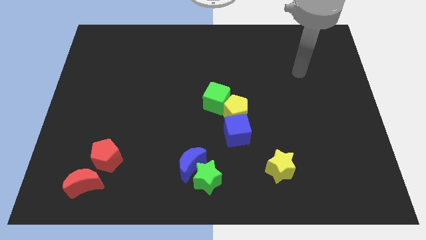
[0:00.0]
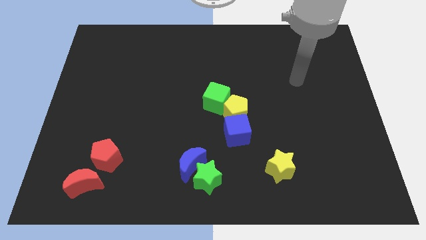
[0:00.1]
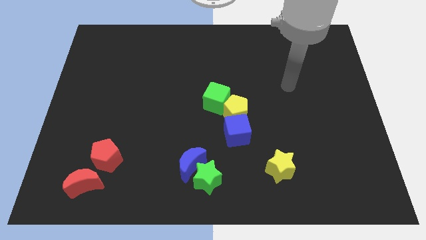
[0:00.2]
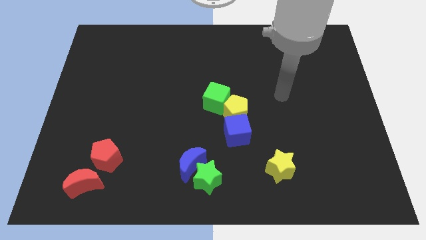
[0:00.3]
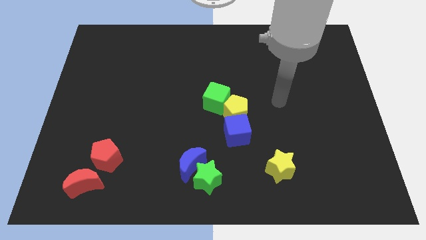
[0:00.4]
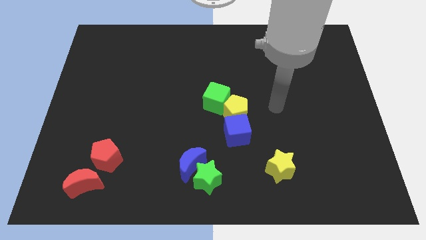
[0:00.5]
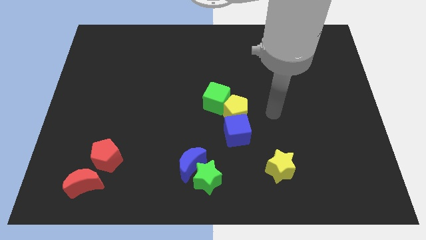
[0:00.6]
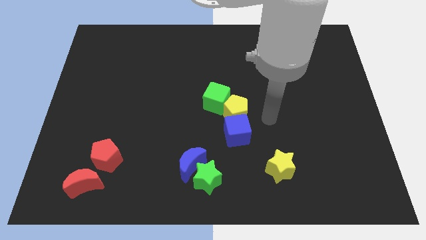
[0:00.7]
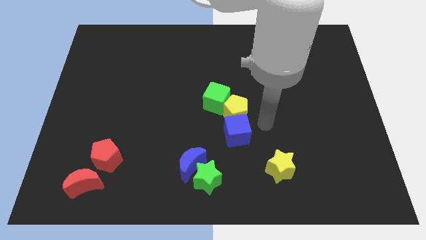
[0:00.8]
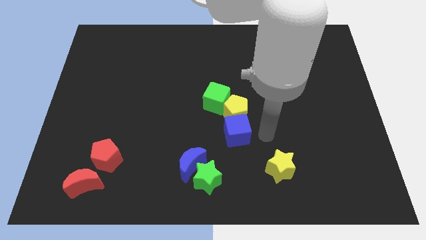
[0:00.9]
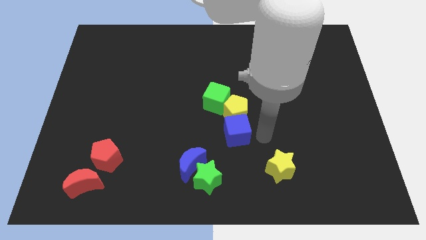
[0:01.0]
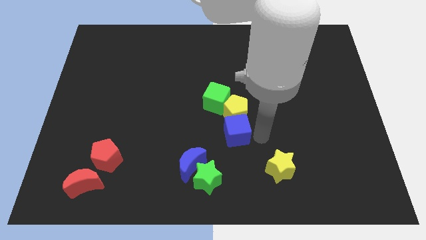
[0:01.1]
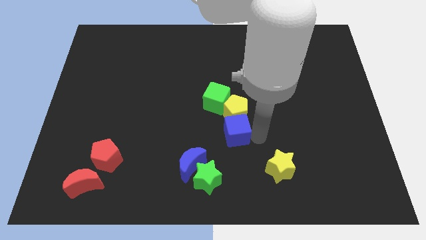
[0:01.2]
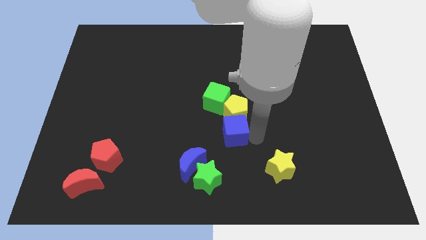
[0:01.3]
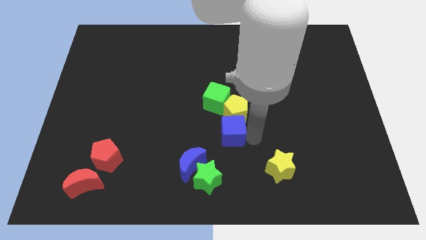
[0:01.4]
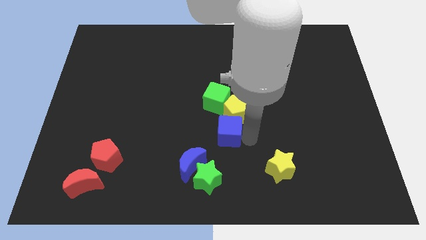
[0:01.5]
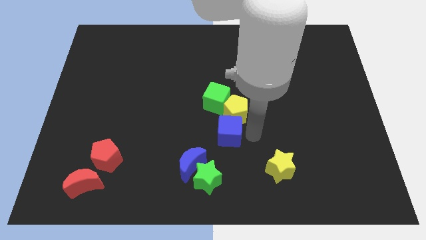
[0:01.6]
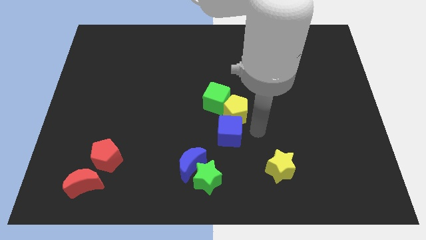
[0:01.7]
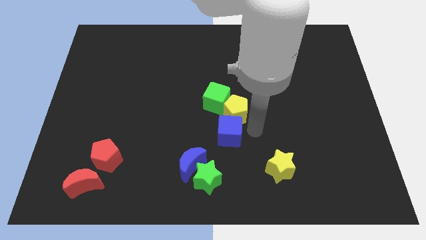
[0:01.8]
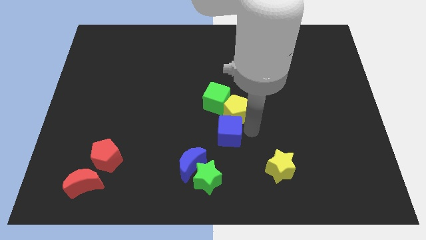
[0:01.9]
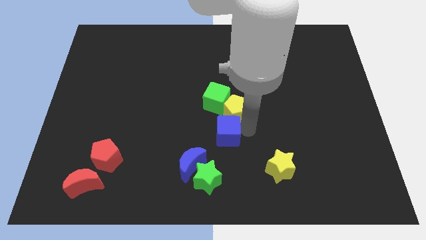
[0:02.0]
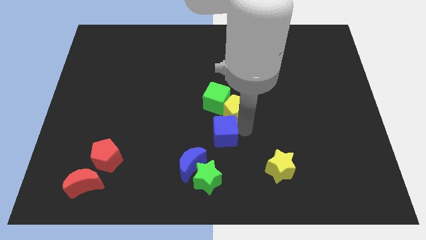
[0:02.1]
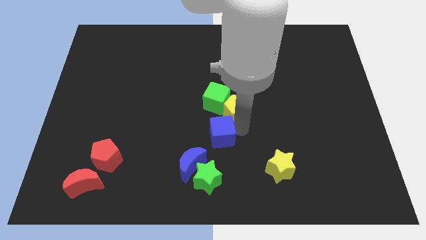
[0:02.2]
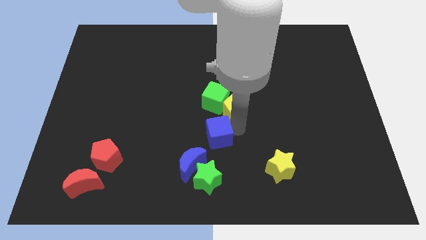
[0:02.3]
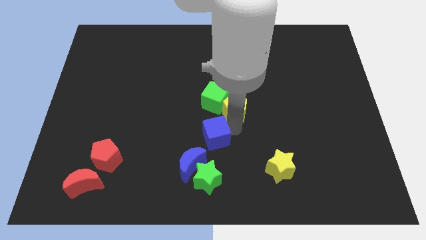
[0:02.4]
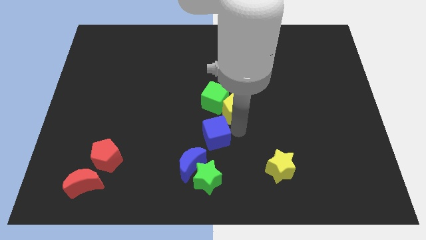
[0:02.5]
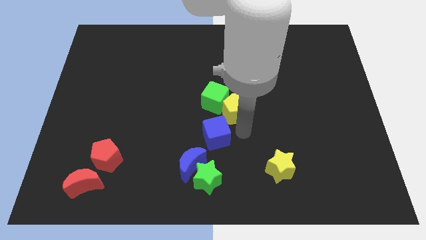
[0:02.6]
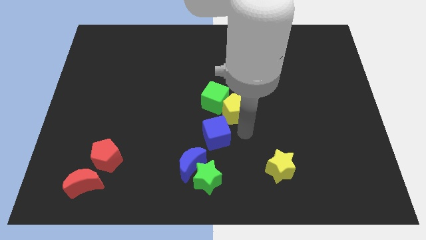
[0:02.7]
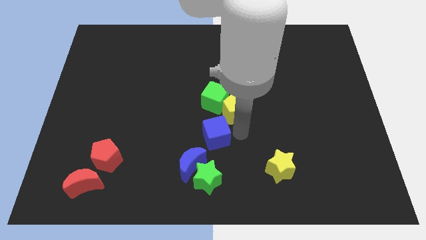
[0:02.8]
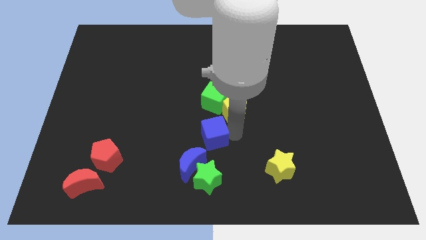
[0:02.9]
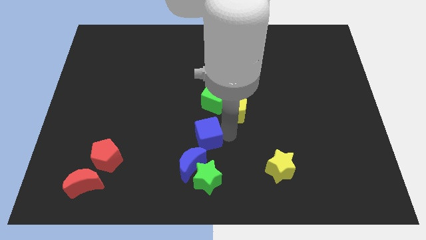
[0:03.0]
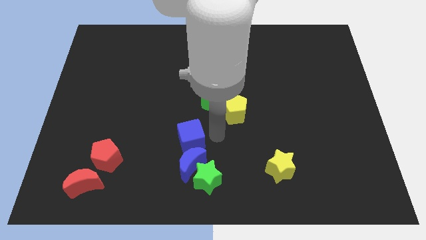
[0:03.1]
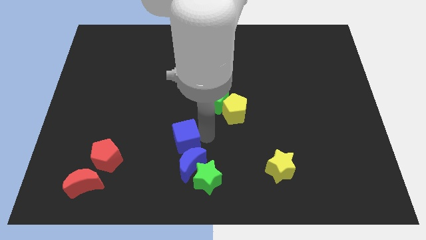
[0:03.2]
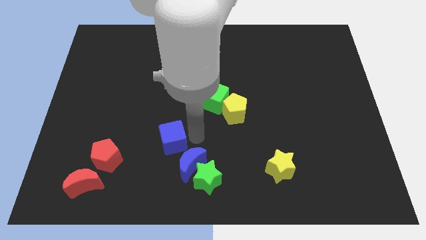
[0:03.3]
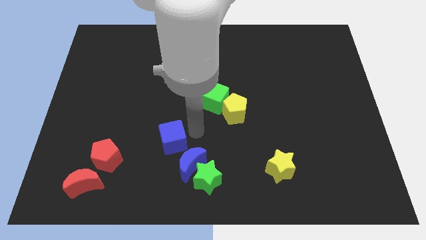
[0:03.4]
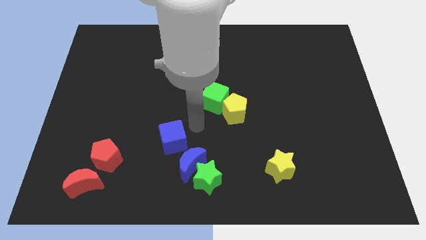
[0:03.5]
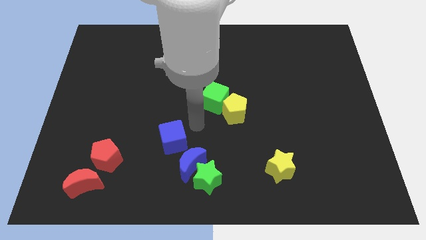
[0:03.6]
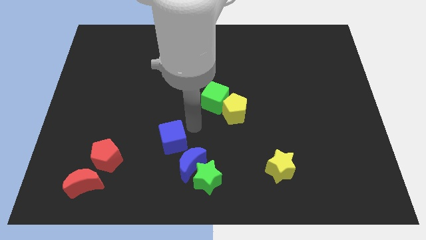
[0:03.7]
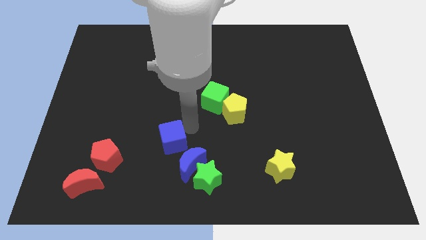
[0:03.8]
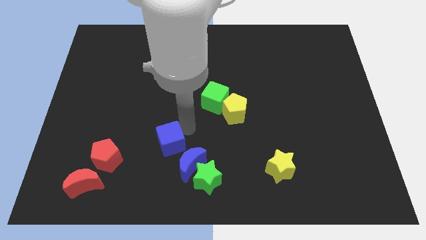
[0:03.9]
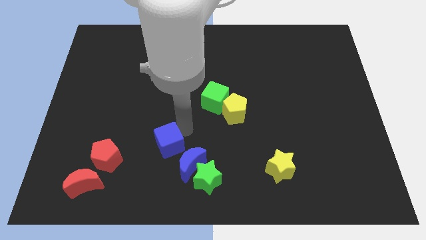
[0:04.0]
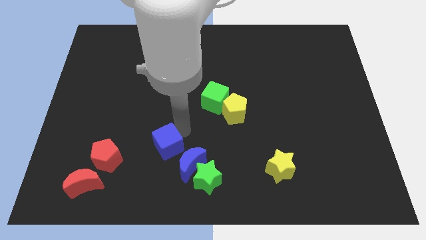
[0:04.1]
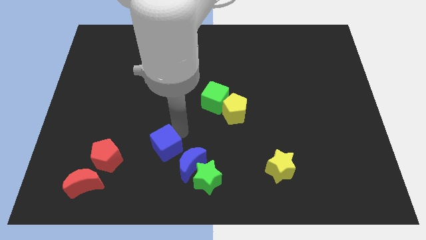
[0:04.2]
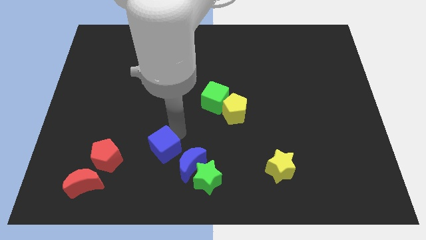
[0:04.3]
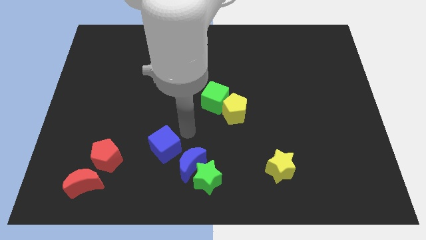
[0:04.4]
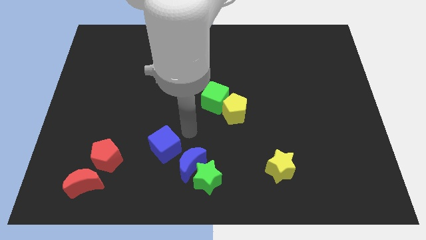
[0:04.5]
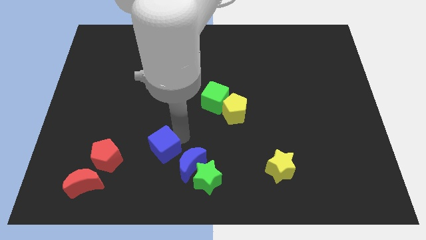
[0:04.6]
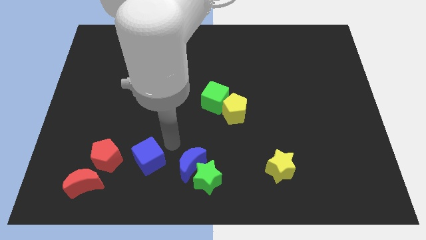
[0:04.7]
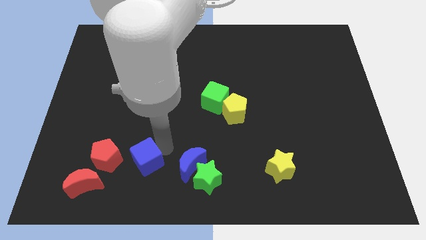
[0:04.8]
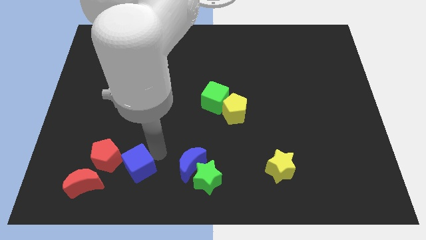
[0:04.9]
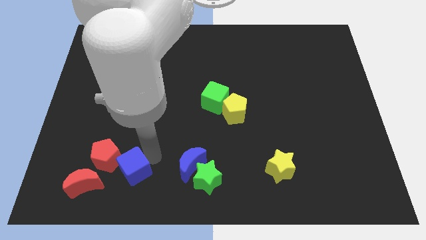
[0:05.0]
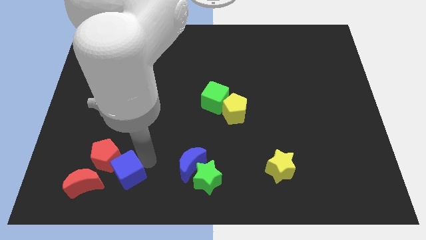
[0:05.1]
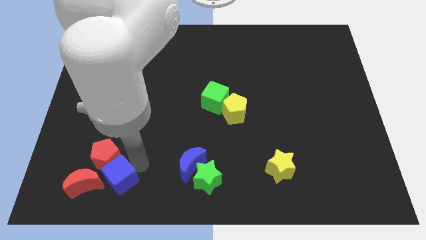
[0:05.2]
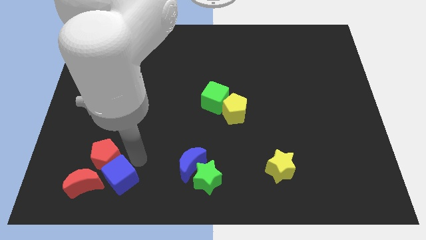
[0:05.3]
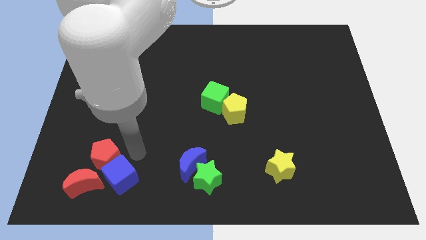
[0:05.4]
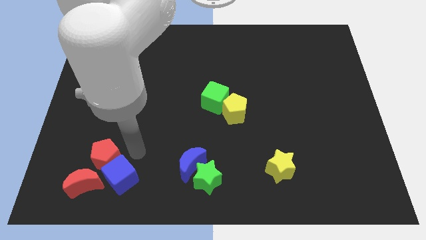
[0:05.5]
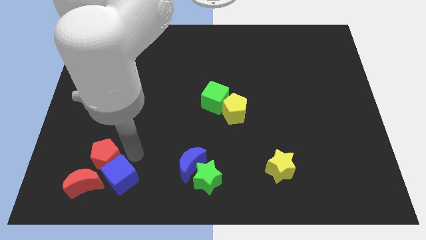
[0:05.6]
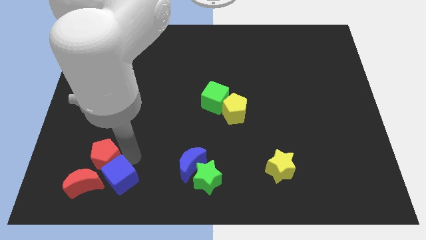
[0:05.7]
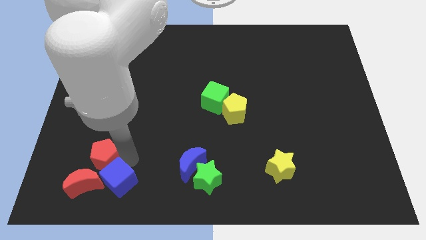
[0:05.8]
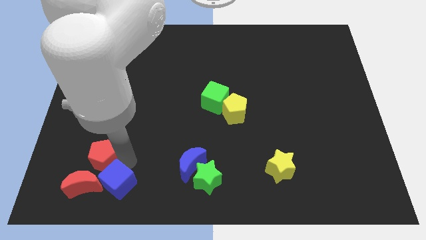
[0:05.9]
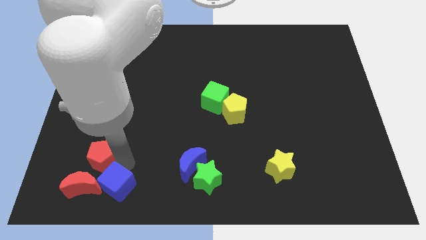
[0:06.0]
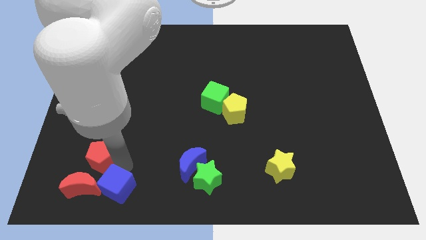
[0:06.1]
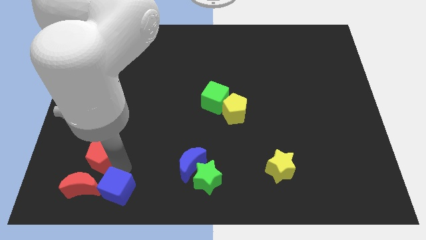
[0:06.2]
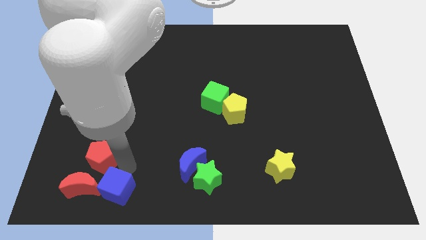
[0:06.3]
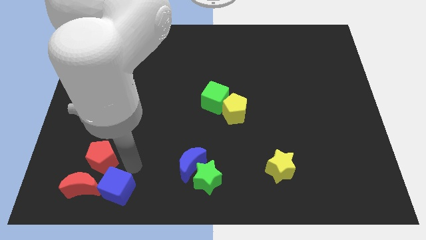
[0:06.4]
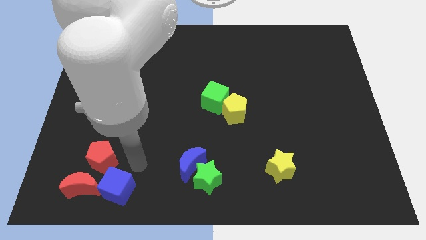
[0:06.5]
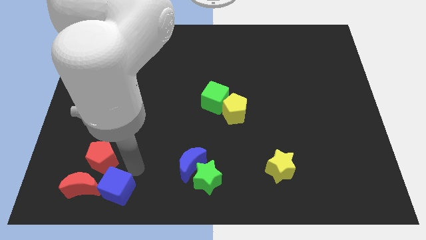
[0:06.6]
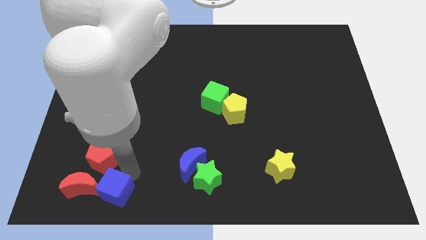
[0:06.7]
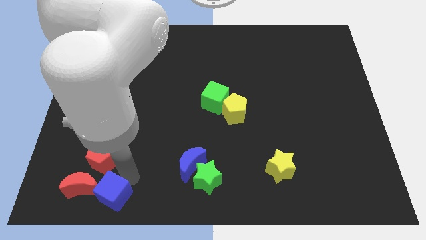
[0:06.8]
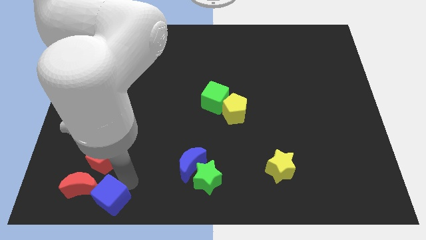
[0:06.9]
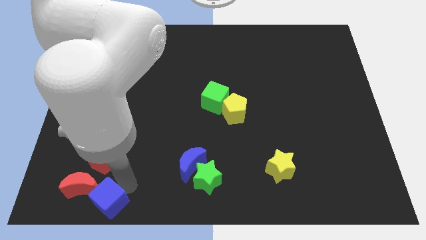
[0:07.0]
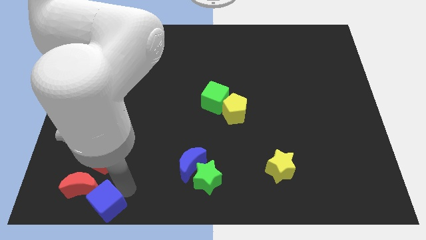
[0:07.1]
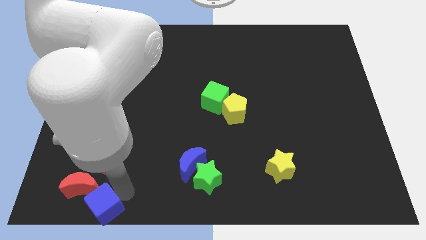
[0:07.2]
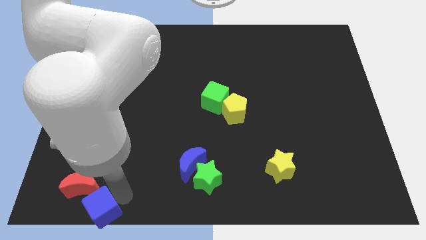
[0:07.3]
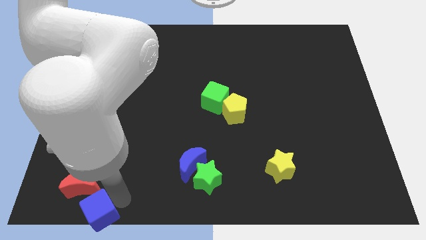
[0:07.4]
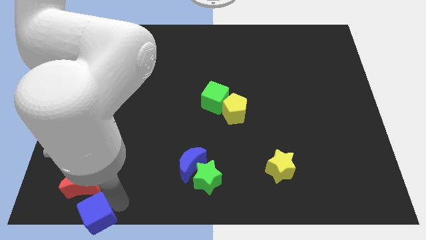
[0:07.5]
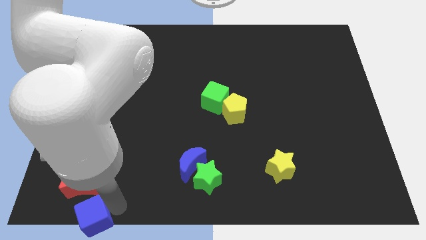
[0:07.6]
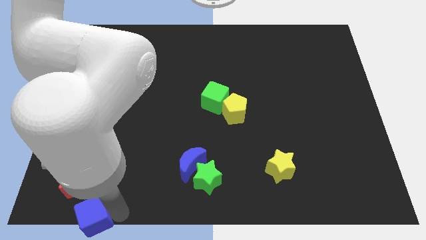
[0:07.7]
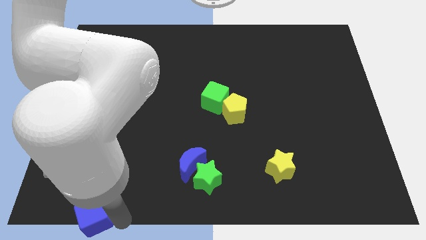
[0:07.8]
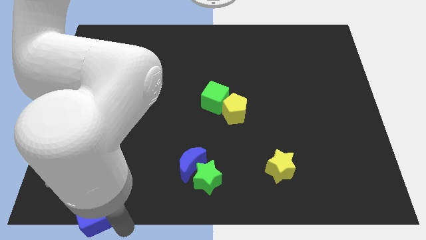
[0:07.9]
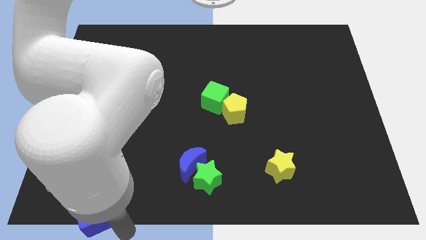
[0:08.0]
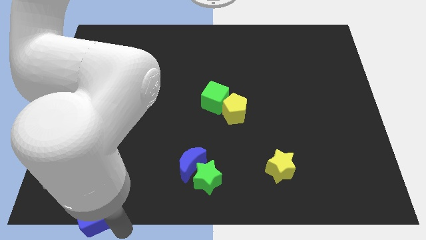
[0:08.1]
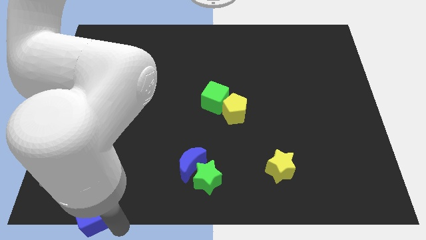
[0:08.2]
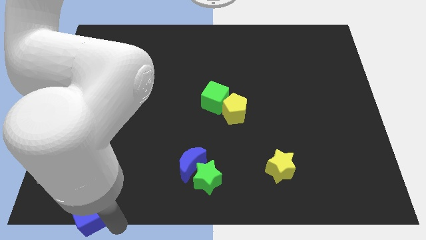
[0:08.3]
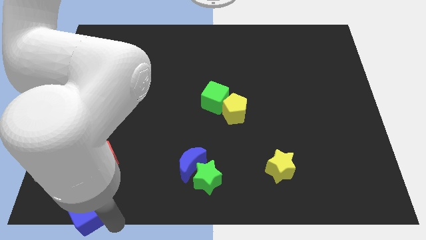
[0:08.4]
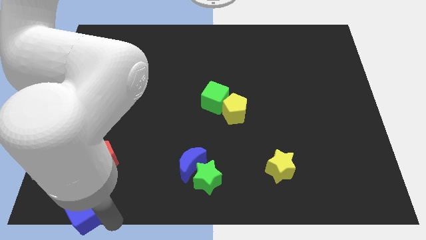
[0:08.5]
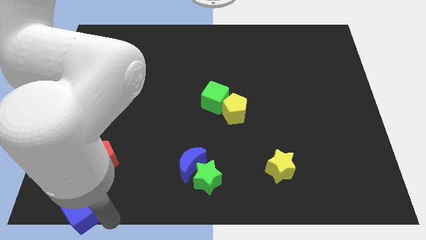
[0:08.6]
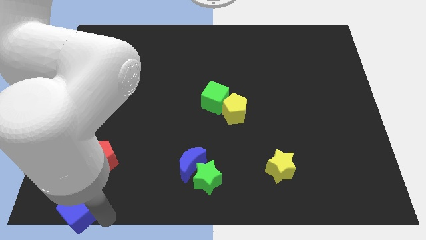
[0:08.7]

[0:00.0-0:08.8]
put the blue cube to the bottom left of the board
